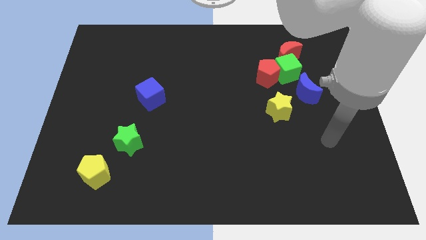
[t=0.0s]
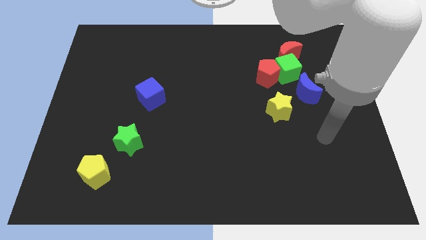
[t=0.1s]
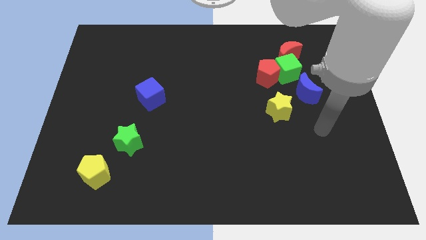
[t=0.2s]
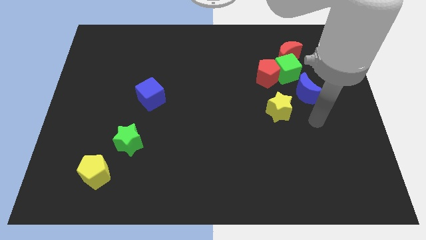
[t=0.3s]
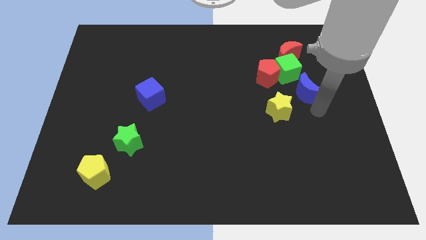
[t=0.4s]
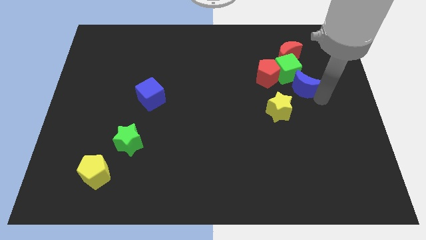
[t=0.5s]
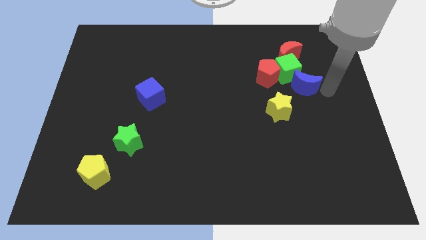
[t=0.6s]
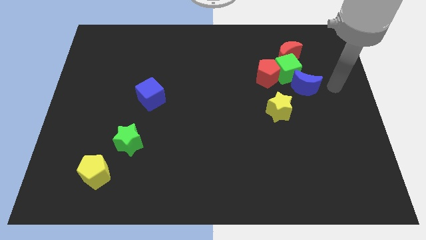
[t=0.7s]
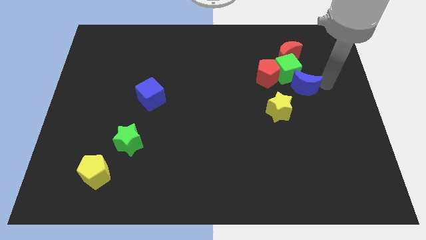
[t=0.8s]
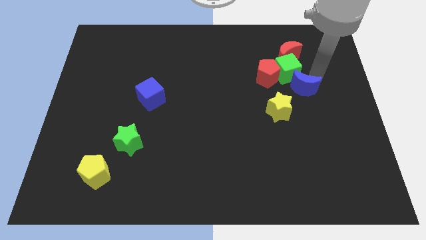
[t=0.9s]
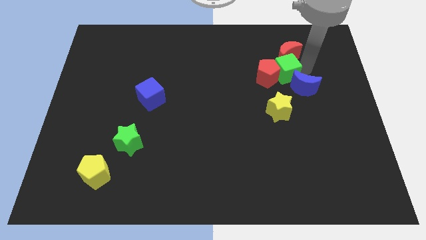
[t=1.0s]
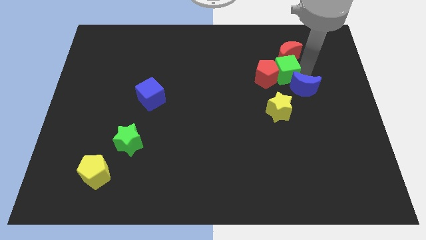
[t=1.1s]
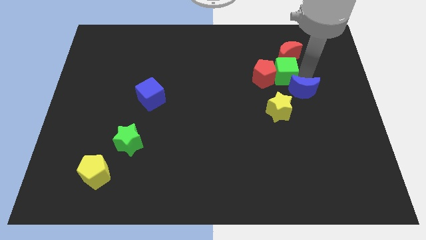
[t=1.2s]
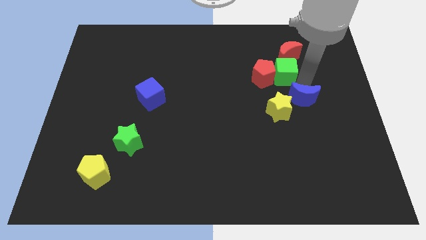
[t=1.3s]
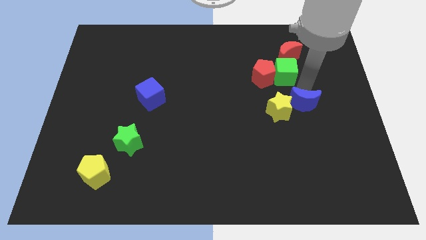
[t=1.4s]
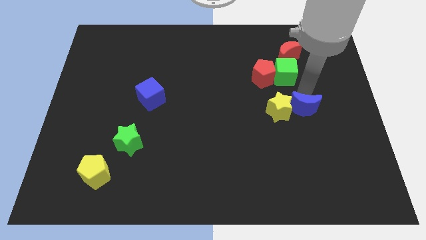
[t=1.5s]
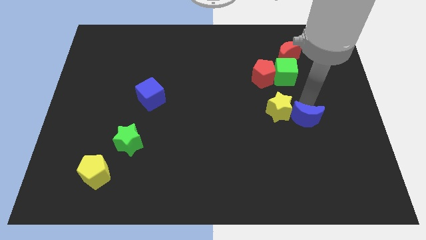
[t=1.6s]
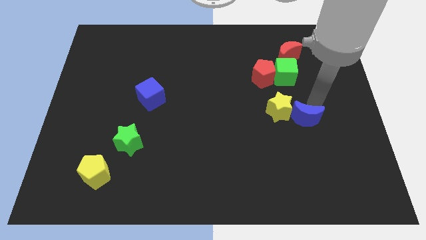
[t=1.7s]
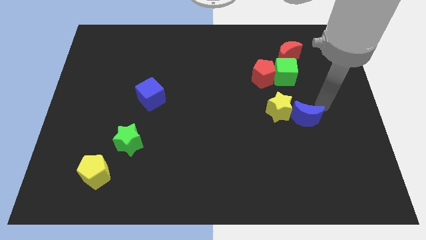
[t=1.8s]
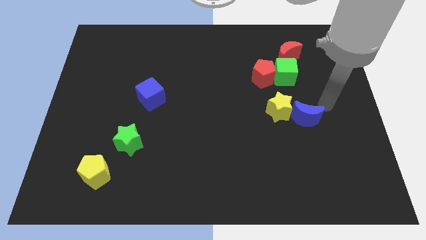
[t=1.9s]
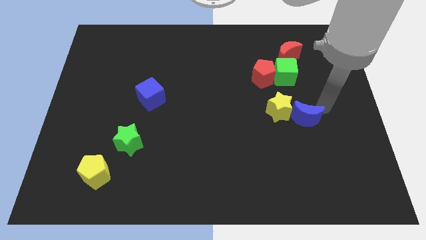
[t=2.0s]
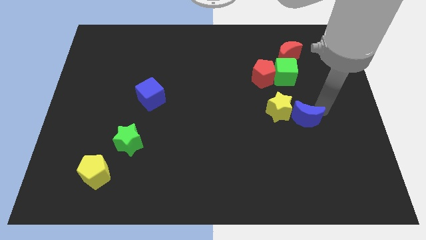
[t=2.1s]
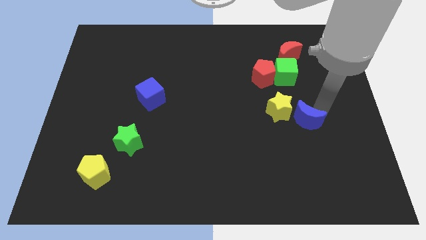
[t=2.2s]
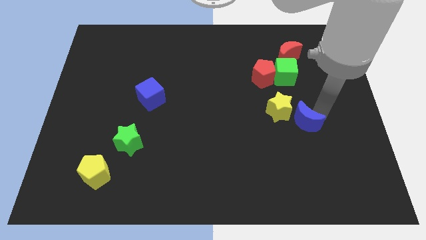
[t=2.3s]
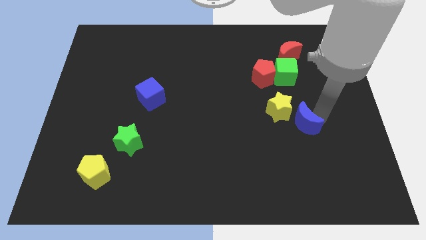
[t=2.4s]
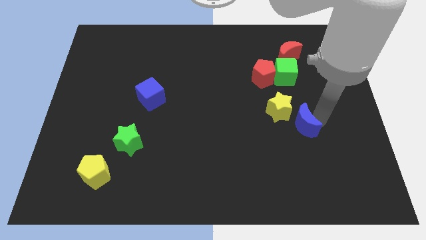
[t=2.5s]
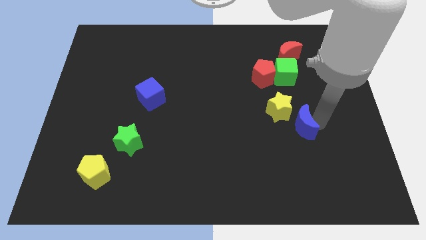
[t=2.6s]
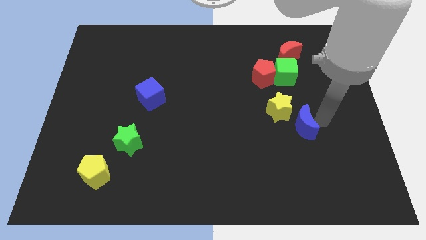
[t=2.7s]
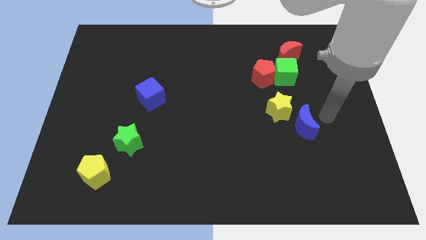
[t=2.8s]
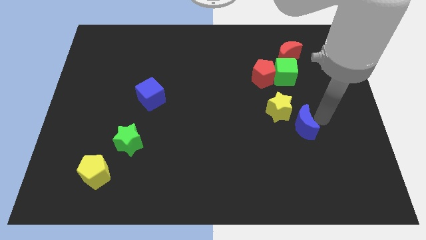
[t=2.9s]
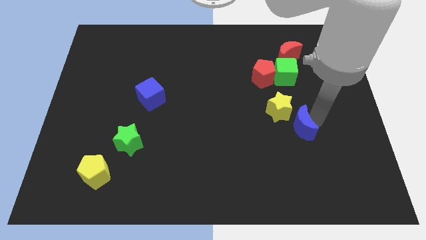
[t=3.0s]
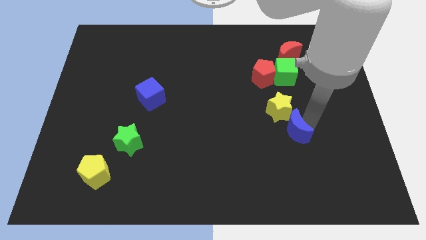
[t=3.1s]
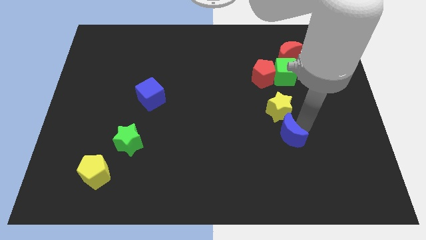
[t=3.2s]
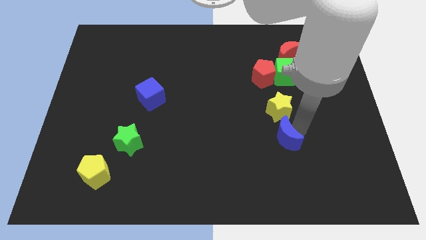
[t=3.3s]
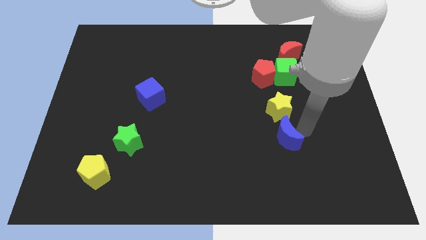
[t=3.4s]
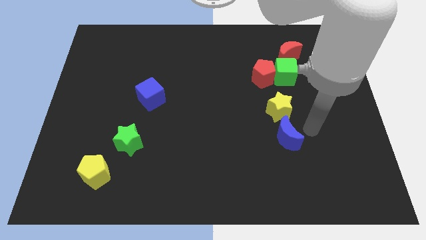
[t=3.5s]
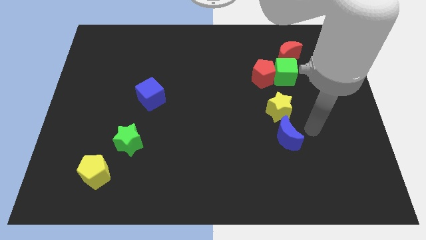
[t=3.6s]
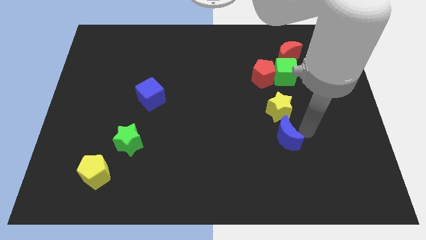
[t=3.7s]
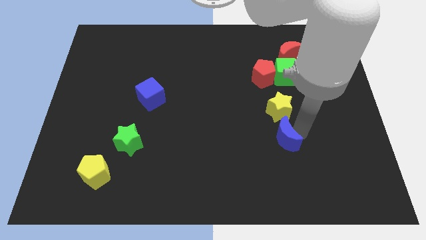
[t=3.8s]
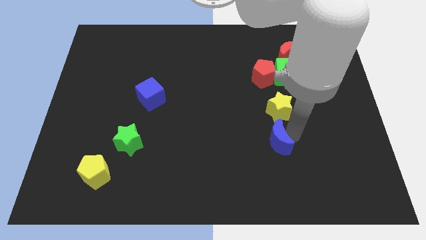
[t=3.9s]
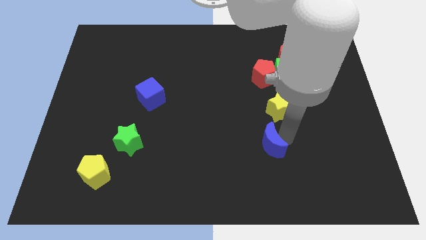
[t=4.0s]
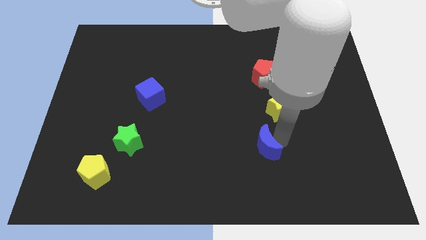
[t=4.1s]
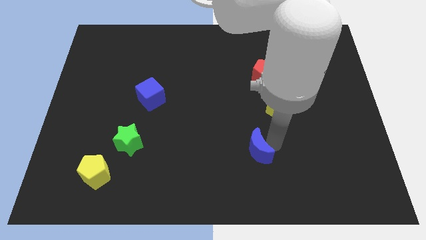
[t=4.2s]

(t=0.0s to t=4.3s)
push the blue moon downwards and left diagonally

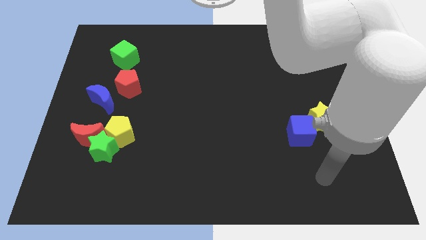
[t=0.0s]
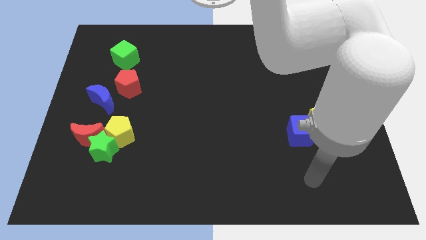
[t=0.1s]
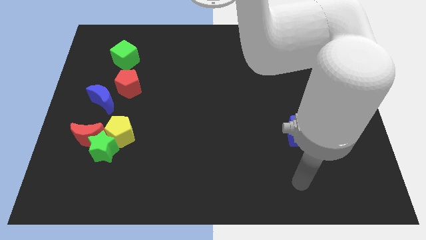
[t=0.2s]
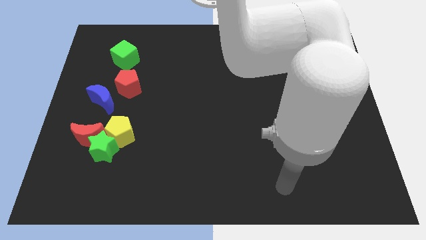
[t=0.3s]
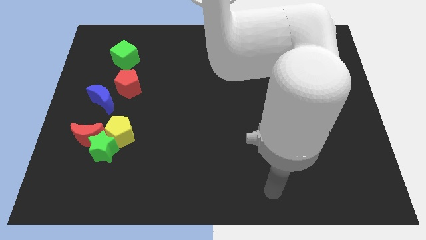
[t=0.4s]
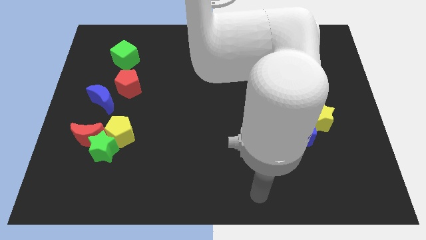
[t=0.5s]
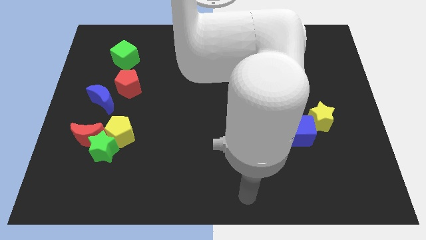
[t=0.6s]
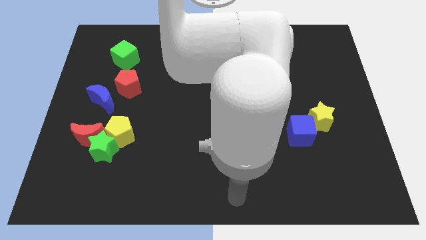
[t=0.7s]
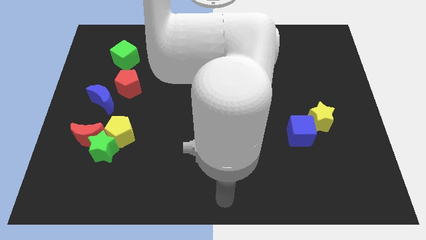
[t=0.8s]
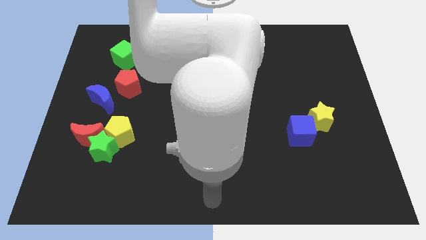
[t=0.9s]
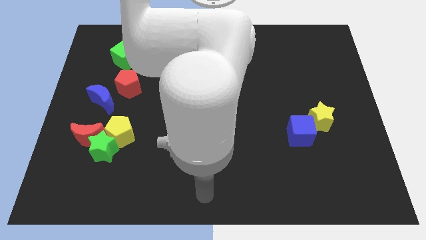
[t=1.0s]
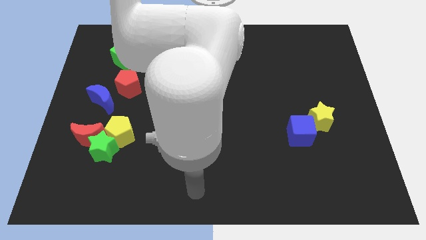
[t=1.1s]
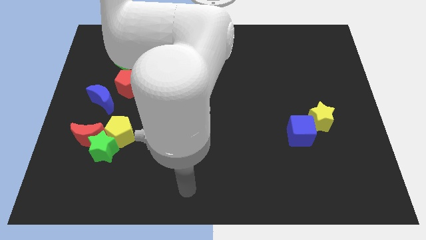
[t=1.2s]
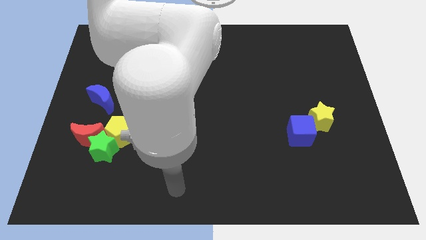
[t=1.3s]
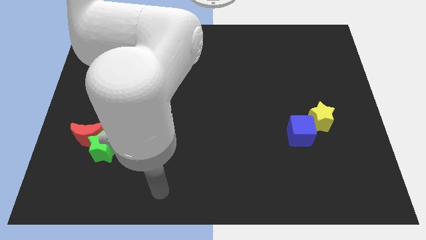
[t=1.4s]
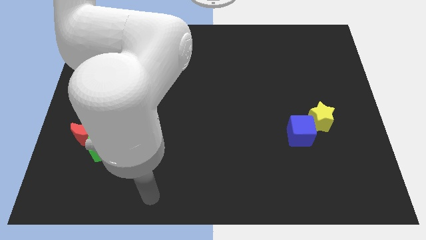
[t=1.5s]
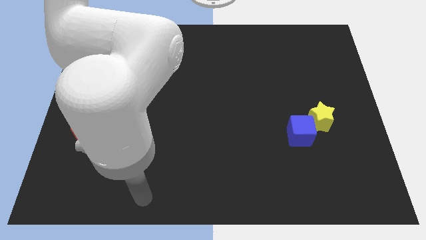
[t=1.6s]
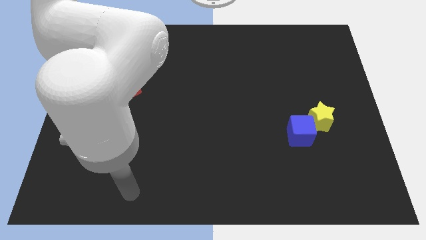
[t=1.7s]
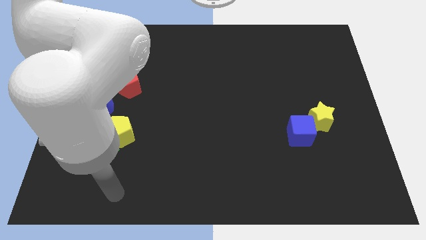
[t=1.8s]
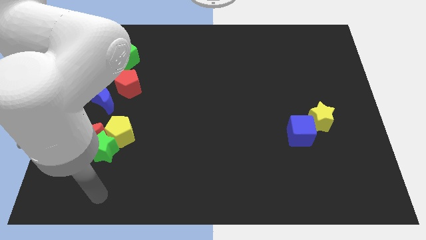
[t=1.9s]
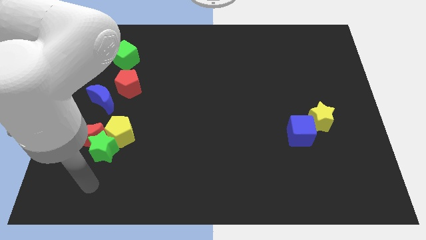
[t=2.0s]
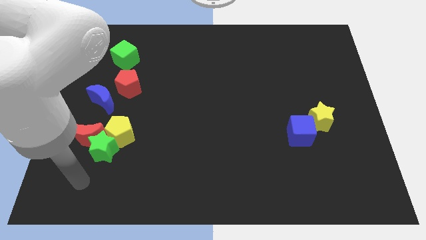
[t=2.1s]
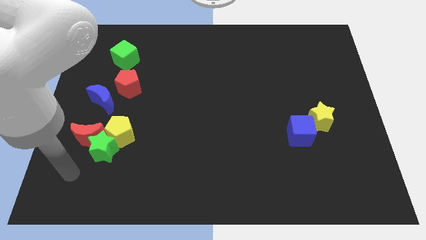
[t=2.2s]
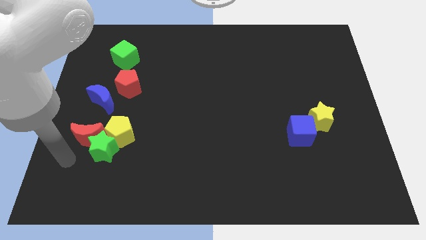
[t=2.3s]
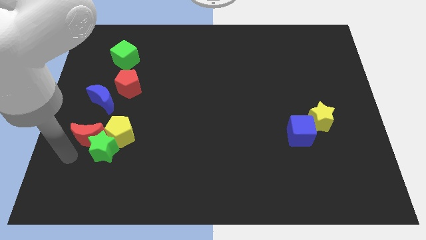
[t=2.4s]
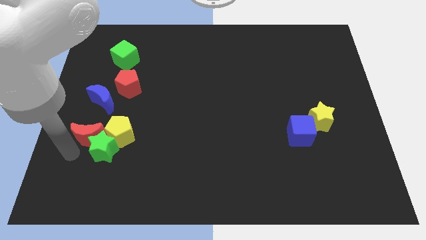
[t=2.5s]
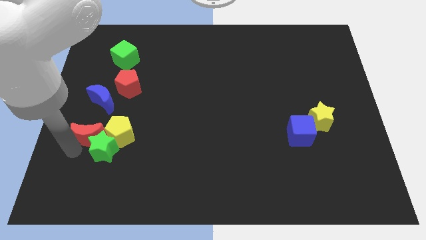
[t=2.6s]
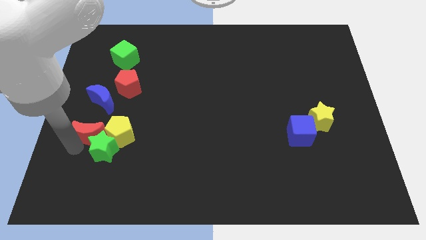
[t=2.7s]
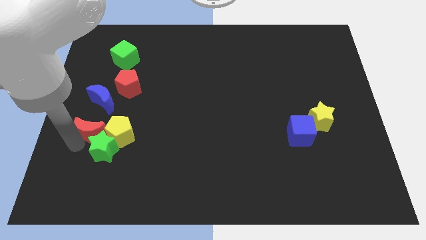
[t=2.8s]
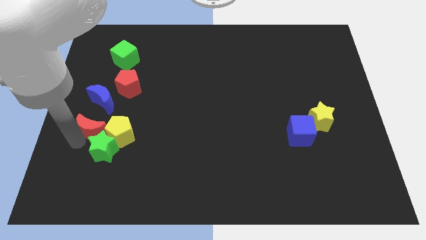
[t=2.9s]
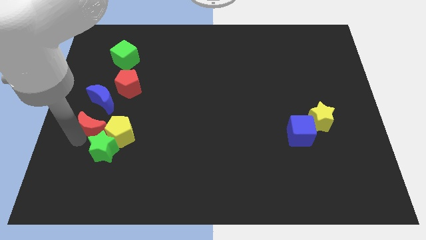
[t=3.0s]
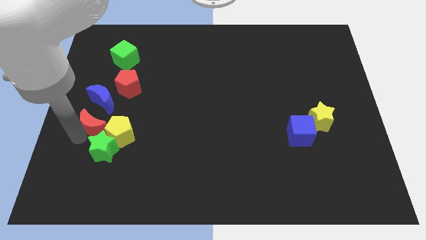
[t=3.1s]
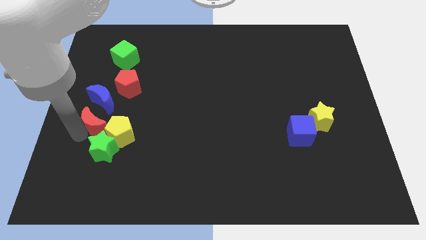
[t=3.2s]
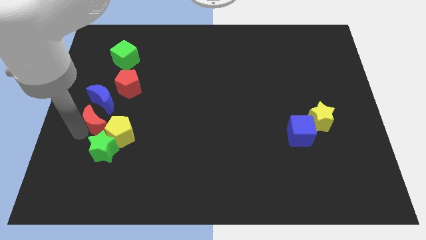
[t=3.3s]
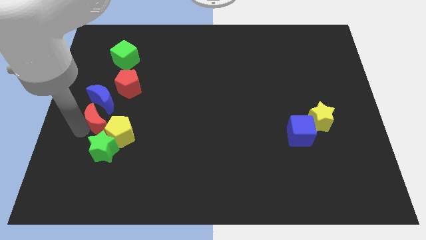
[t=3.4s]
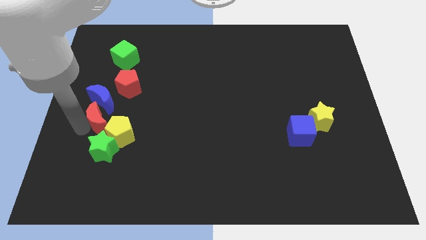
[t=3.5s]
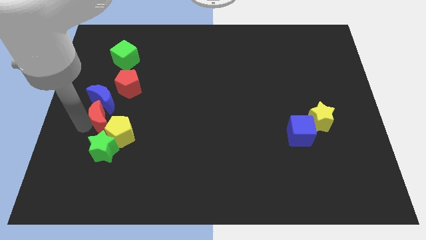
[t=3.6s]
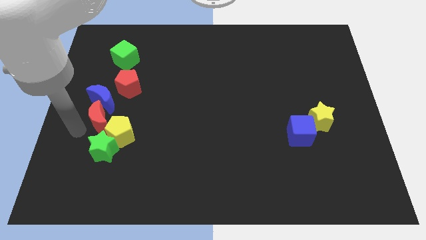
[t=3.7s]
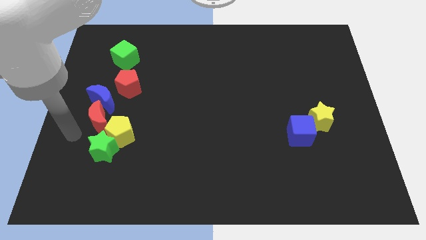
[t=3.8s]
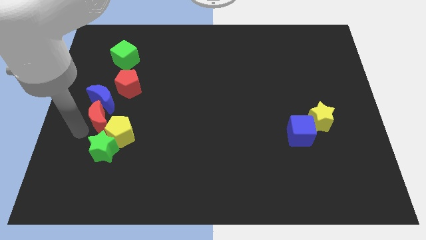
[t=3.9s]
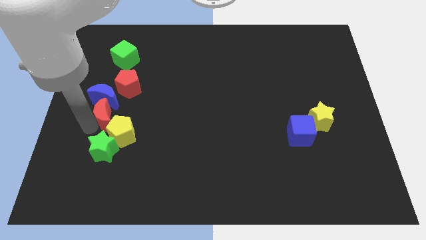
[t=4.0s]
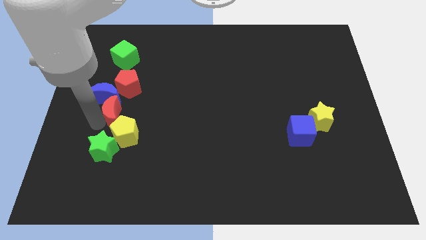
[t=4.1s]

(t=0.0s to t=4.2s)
slide the red moon a bit diagonally up and right
